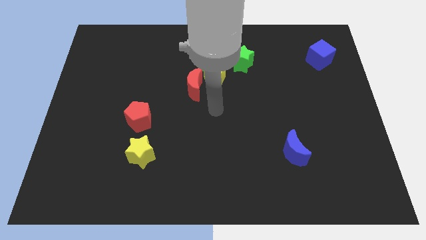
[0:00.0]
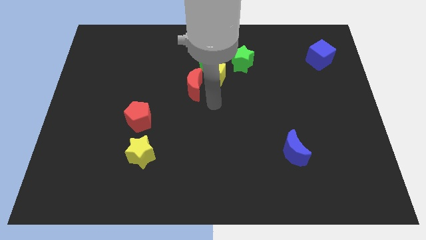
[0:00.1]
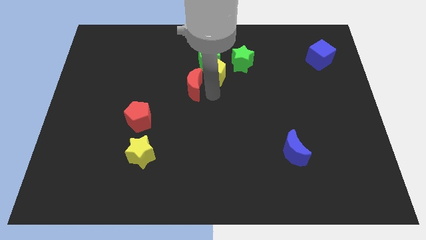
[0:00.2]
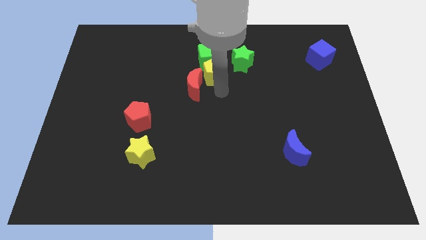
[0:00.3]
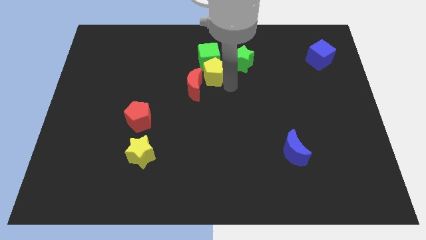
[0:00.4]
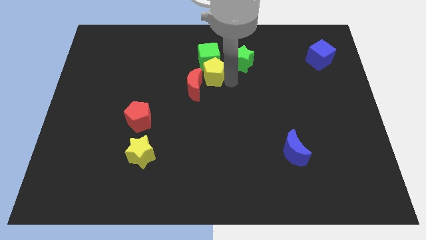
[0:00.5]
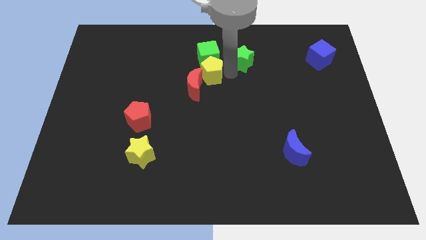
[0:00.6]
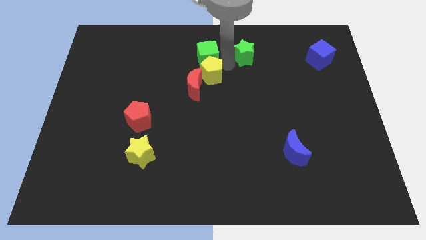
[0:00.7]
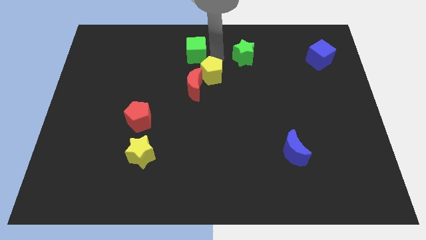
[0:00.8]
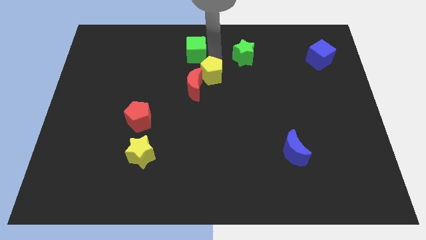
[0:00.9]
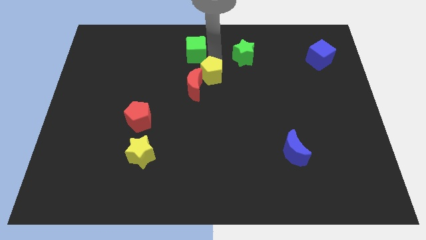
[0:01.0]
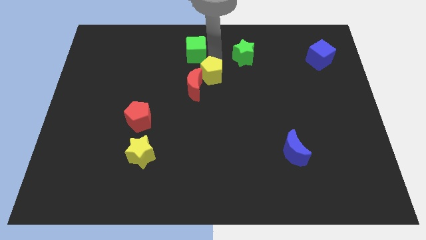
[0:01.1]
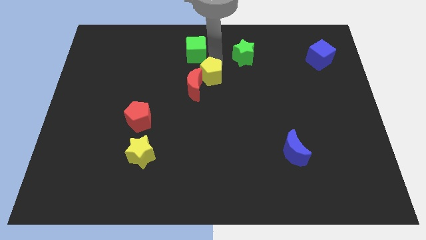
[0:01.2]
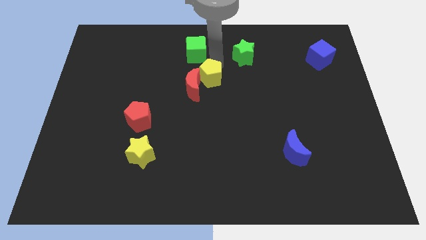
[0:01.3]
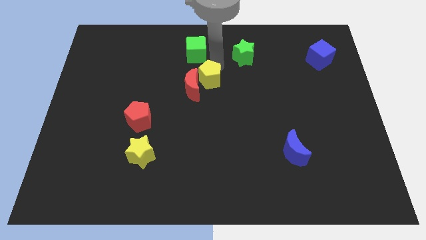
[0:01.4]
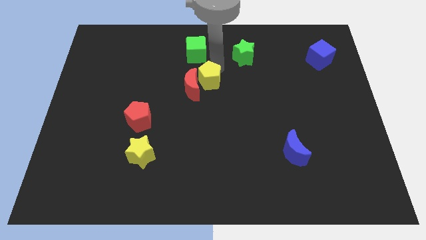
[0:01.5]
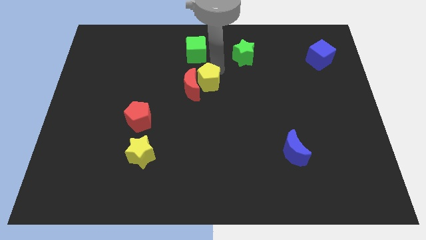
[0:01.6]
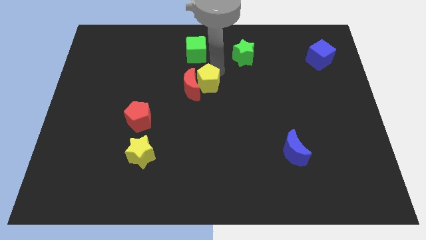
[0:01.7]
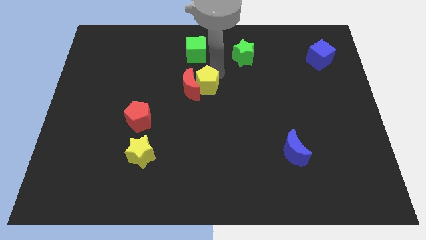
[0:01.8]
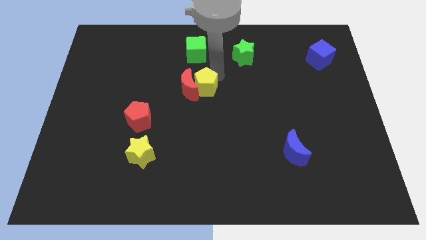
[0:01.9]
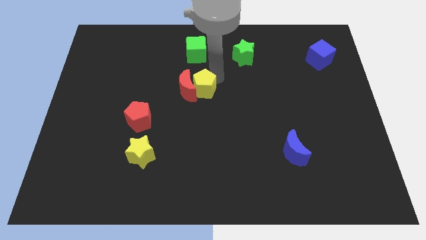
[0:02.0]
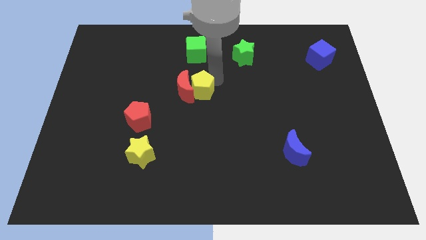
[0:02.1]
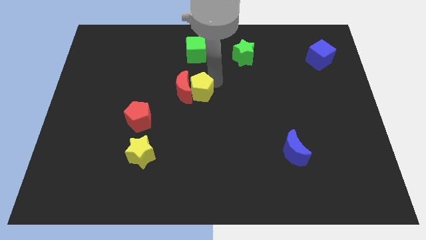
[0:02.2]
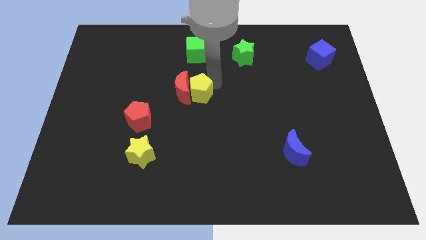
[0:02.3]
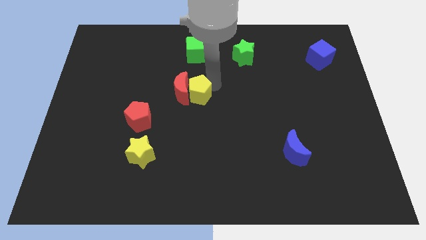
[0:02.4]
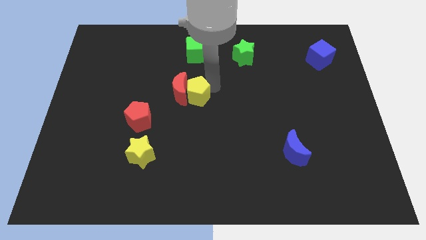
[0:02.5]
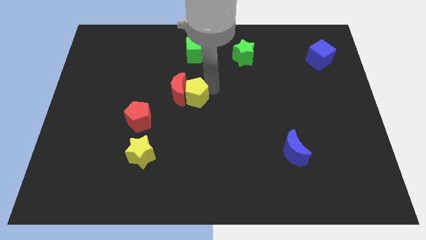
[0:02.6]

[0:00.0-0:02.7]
move the yellow pentagon away from the clump

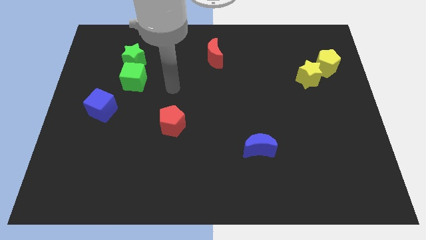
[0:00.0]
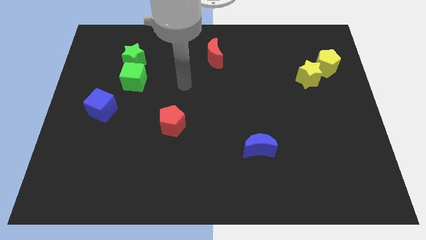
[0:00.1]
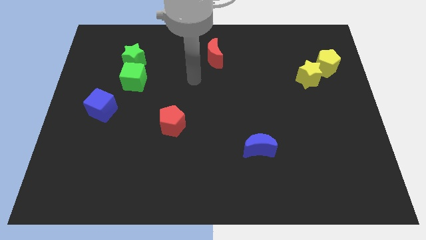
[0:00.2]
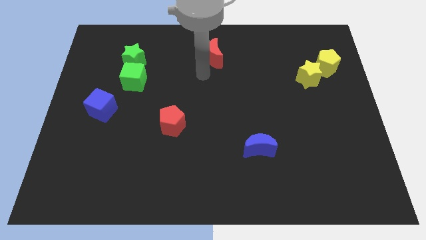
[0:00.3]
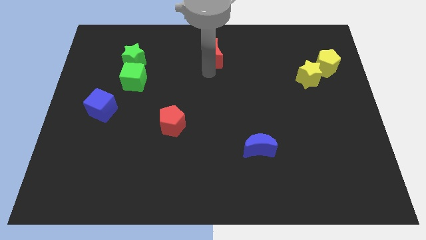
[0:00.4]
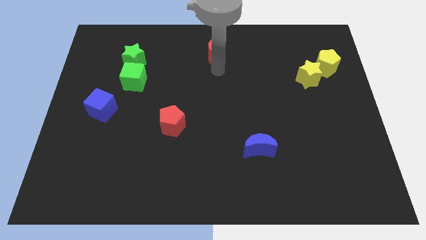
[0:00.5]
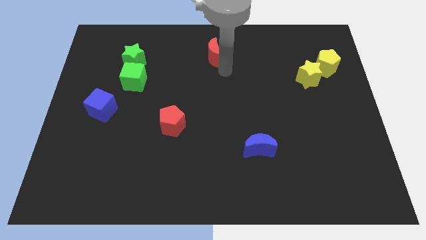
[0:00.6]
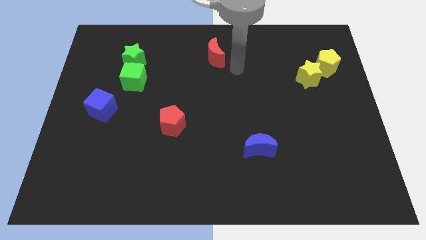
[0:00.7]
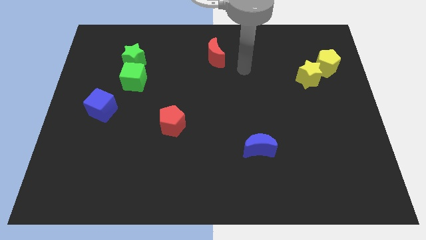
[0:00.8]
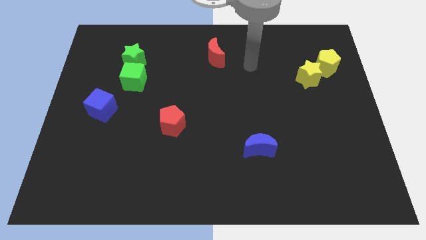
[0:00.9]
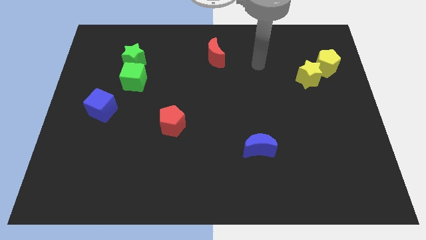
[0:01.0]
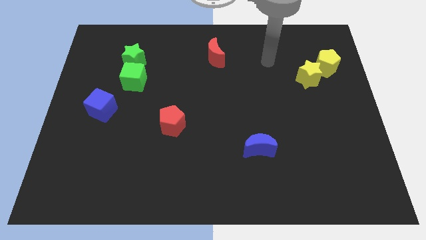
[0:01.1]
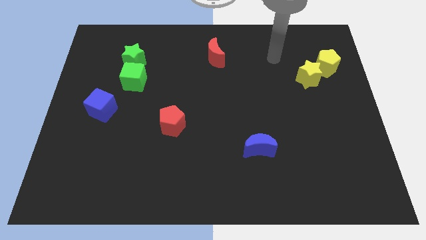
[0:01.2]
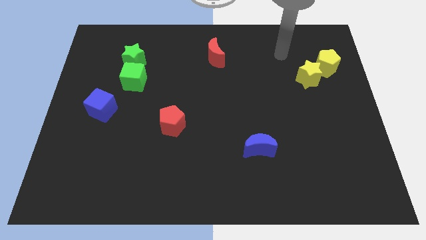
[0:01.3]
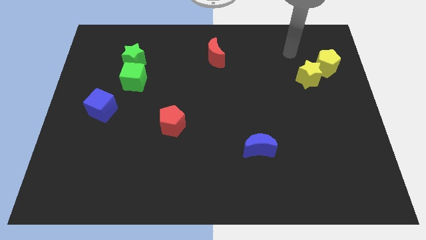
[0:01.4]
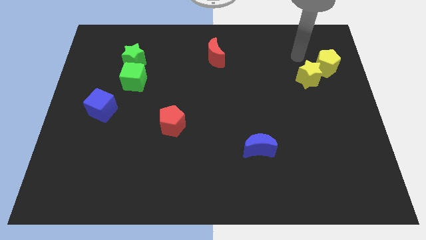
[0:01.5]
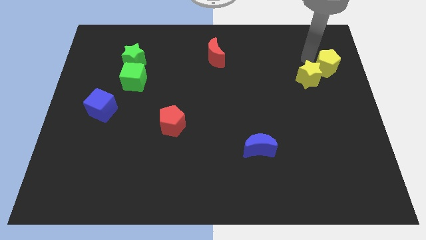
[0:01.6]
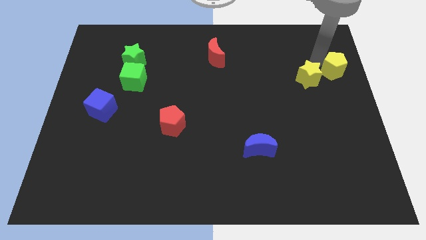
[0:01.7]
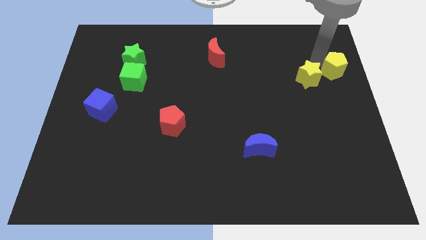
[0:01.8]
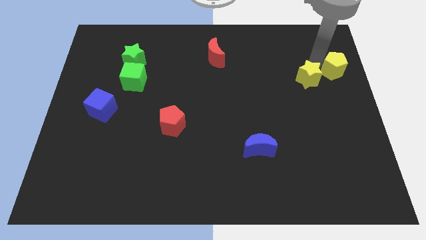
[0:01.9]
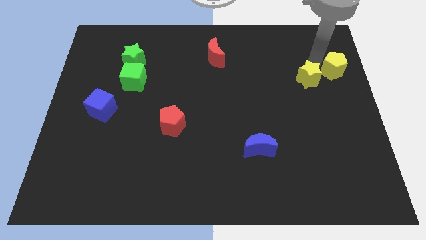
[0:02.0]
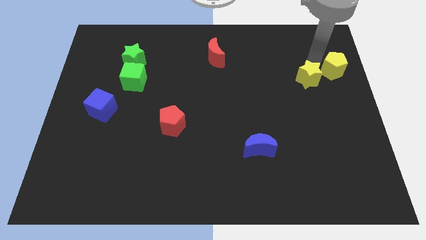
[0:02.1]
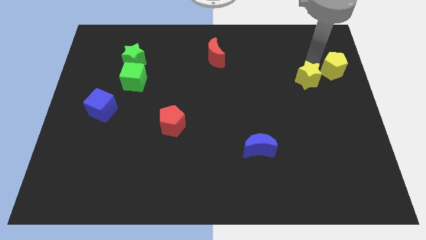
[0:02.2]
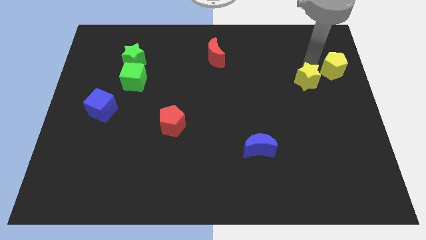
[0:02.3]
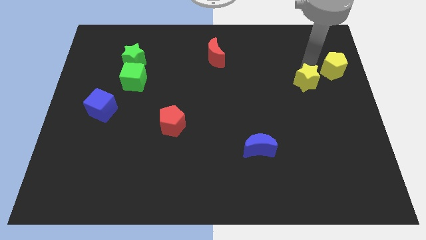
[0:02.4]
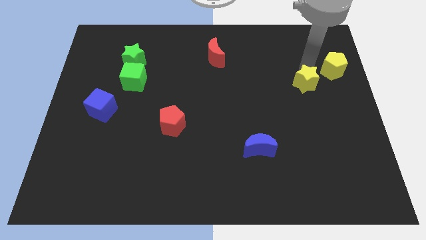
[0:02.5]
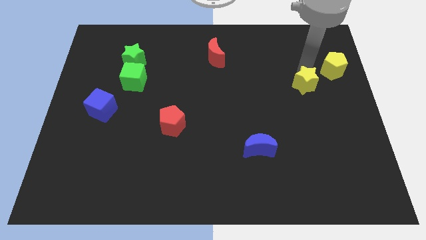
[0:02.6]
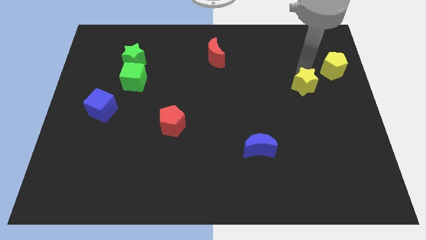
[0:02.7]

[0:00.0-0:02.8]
separate the yellow star from the yellow pentagon

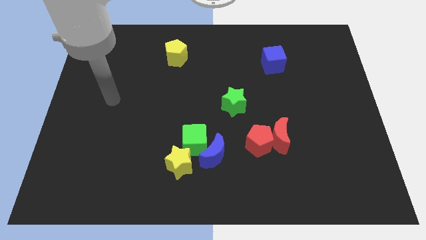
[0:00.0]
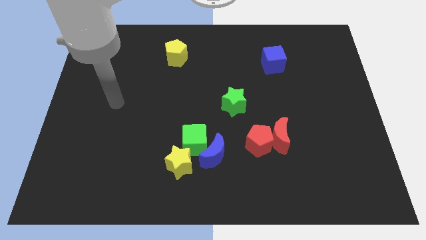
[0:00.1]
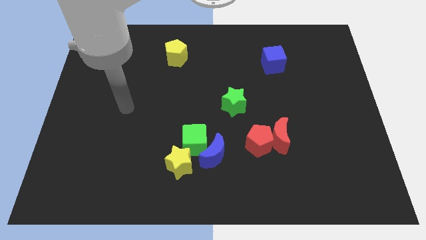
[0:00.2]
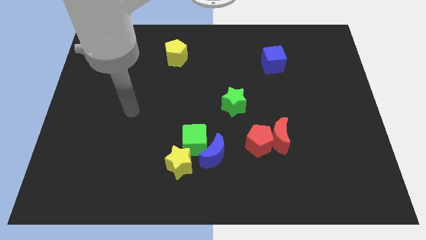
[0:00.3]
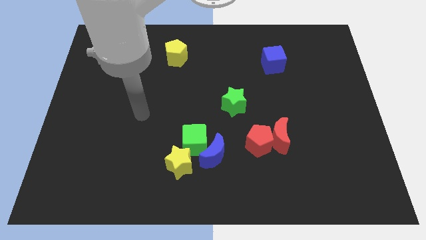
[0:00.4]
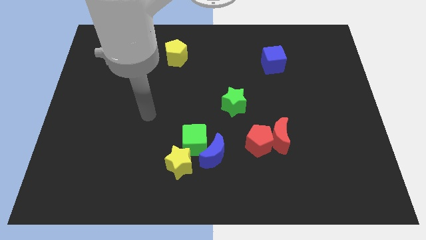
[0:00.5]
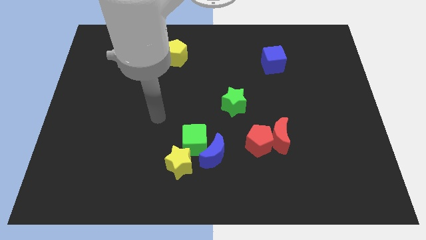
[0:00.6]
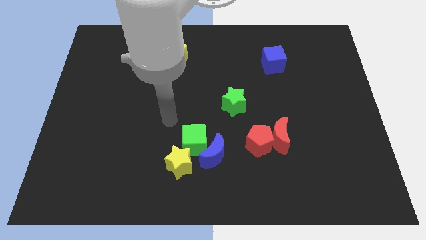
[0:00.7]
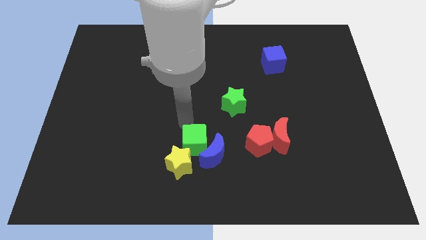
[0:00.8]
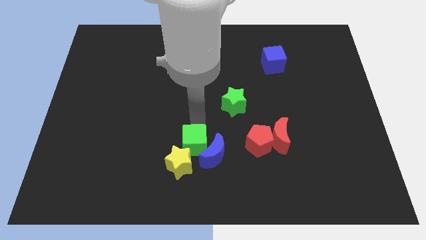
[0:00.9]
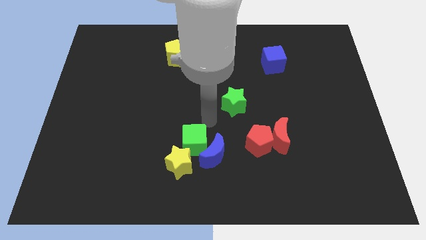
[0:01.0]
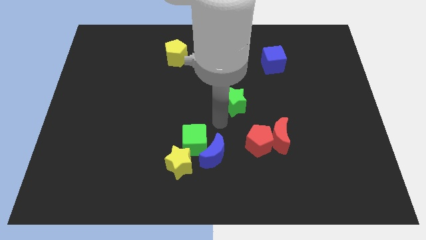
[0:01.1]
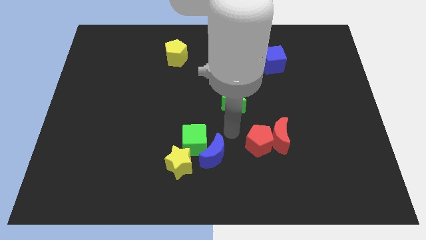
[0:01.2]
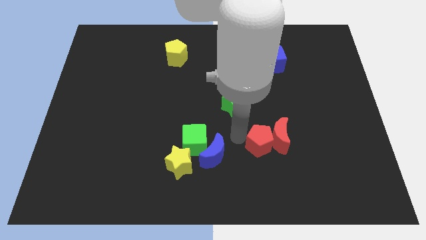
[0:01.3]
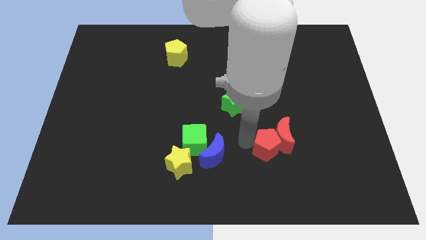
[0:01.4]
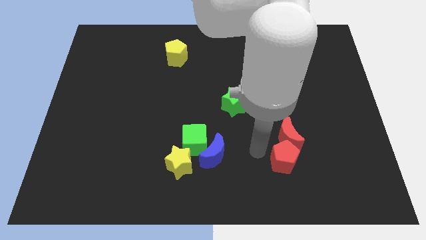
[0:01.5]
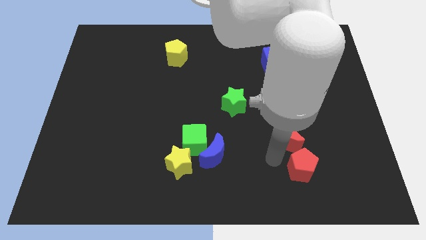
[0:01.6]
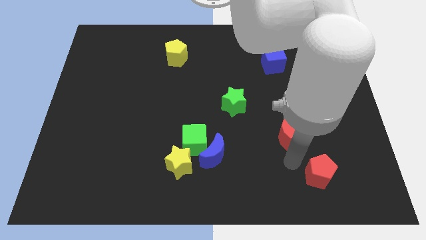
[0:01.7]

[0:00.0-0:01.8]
move the red moon away from the red pentagon

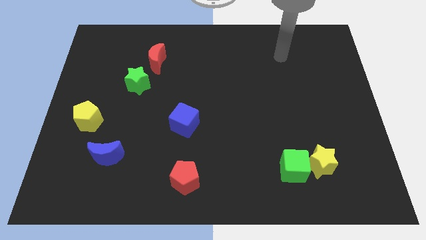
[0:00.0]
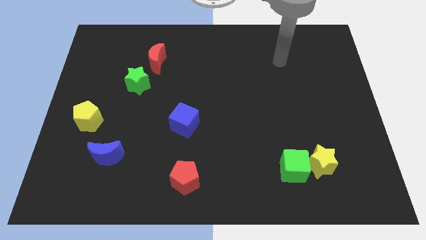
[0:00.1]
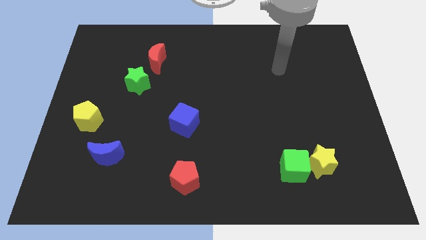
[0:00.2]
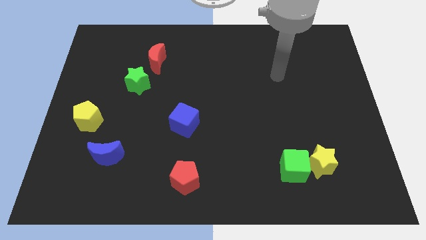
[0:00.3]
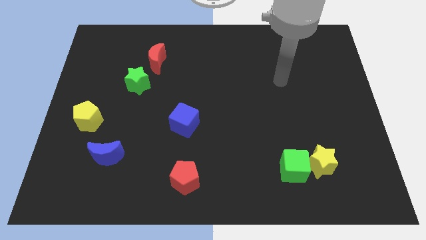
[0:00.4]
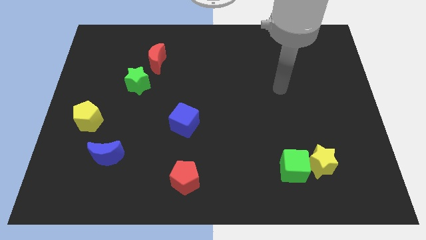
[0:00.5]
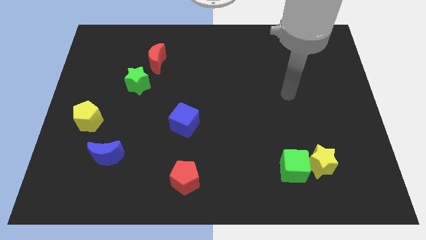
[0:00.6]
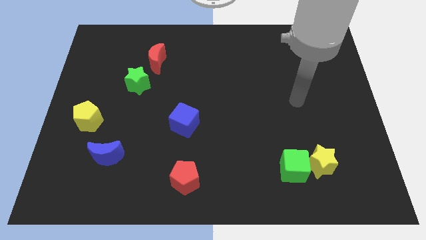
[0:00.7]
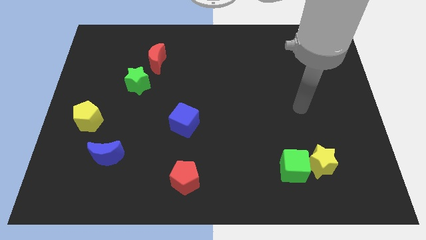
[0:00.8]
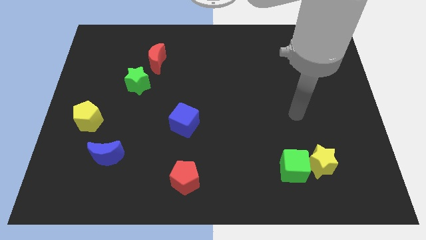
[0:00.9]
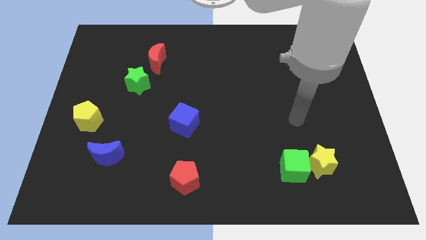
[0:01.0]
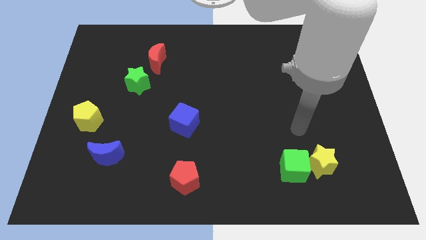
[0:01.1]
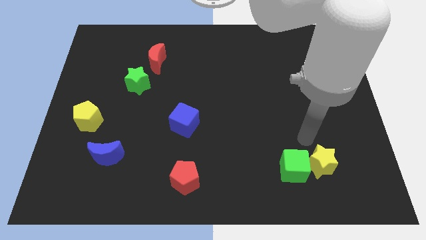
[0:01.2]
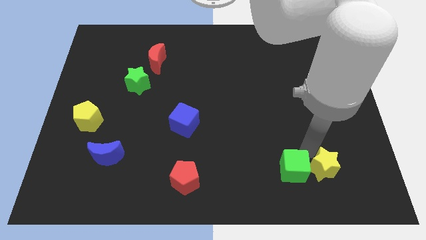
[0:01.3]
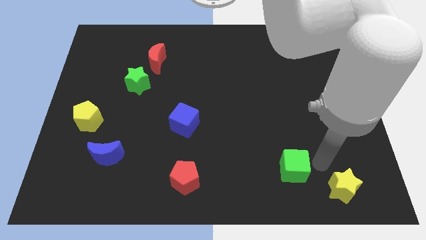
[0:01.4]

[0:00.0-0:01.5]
separate the green cube from the yellow star

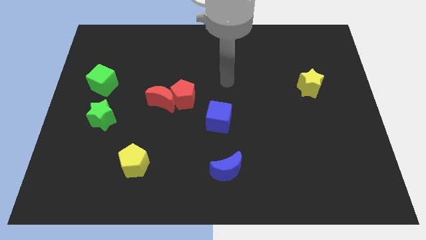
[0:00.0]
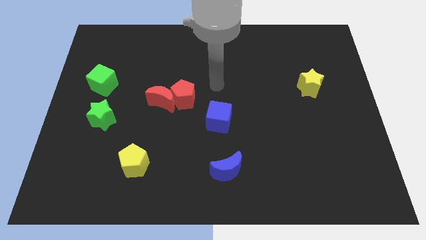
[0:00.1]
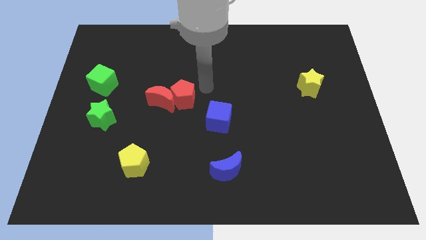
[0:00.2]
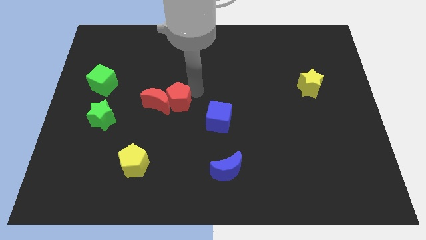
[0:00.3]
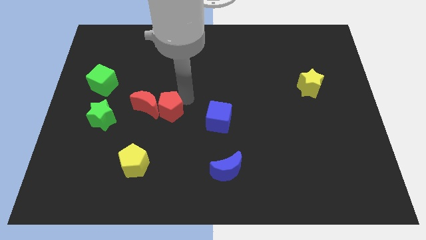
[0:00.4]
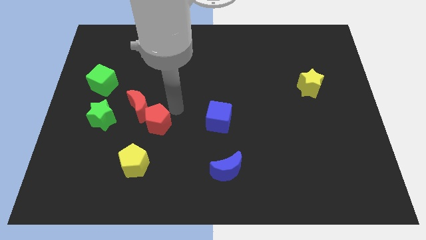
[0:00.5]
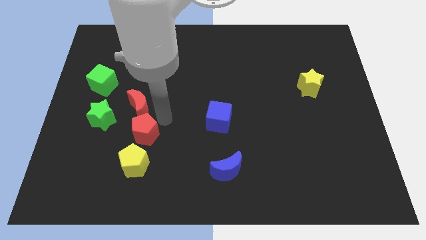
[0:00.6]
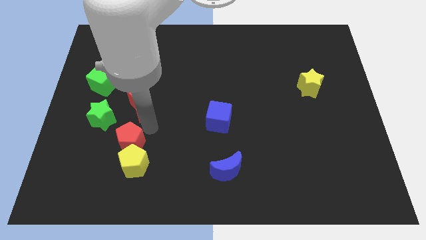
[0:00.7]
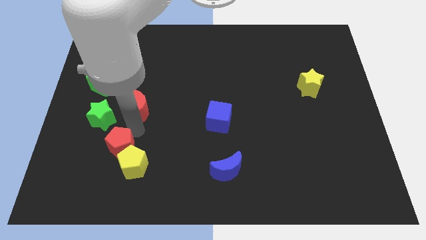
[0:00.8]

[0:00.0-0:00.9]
separate the red moon from the red pentagon
